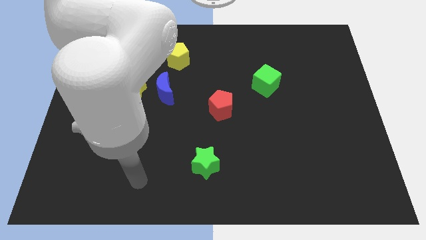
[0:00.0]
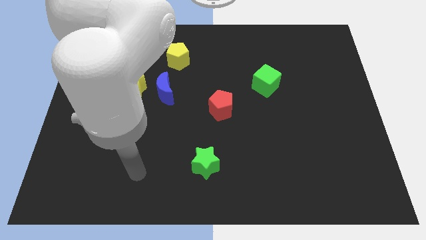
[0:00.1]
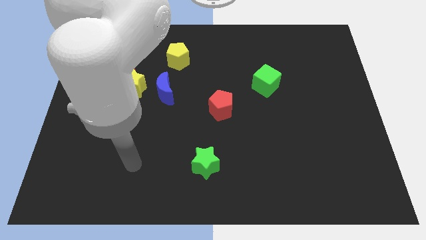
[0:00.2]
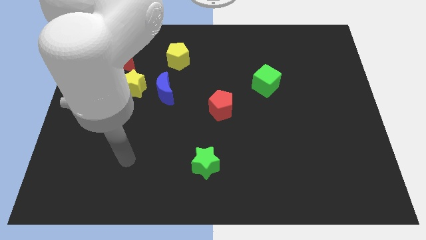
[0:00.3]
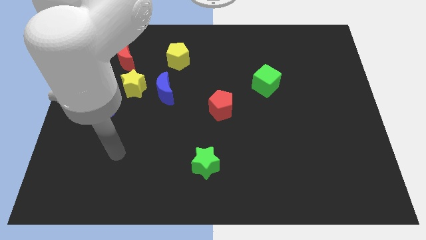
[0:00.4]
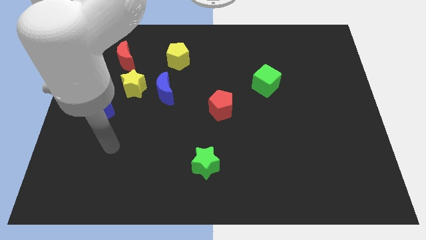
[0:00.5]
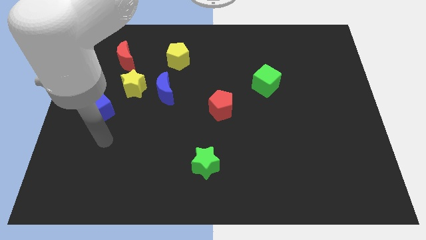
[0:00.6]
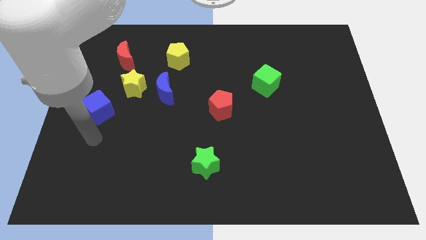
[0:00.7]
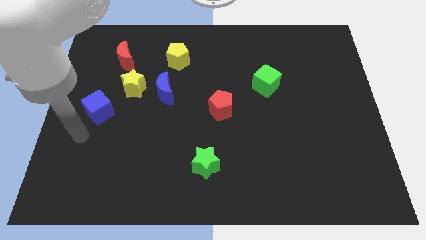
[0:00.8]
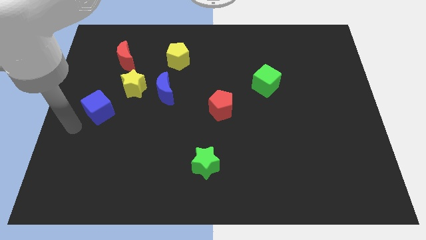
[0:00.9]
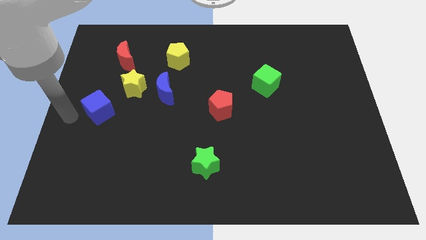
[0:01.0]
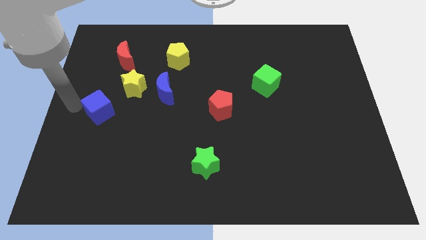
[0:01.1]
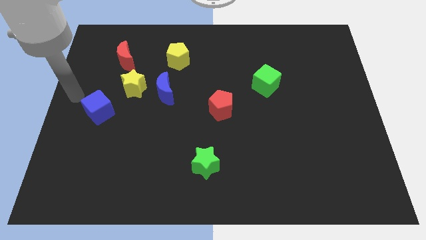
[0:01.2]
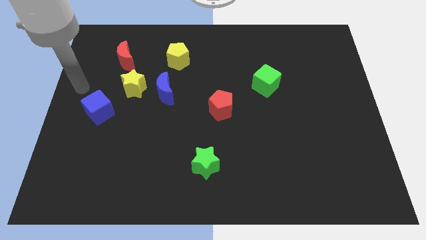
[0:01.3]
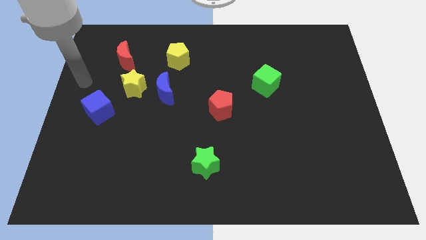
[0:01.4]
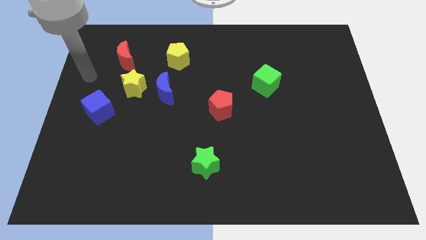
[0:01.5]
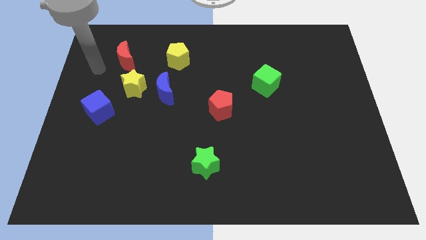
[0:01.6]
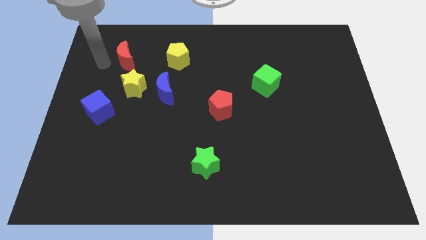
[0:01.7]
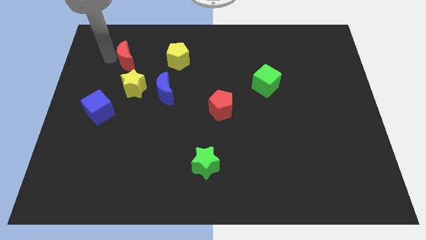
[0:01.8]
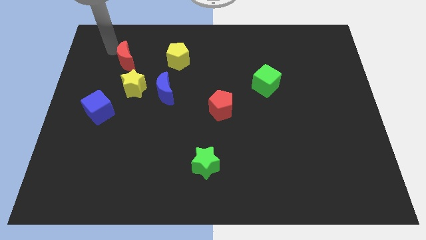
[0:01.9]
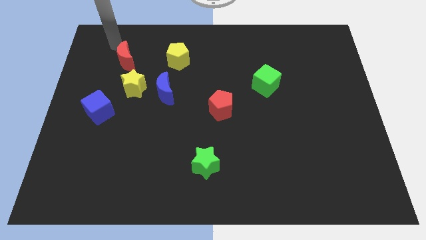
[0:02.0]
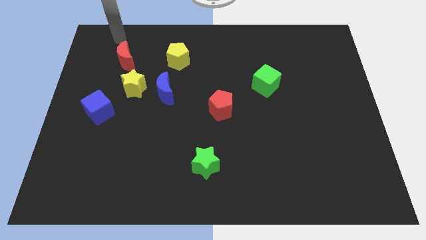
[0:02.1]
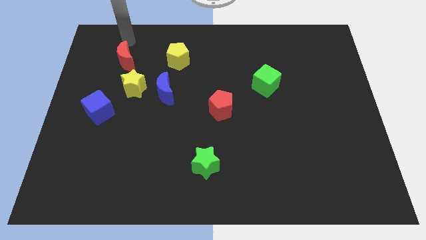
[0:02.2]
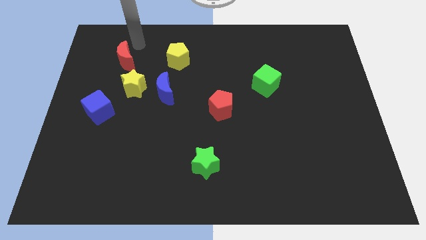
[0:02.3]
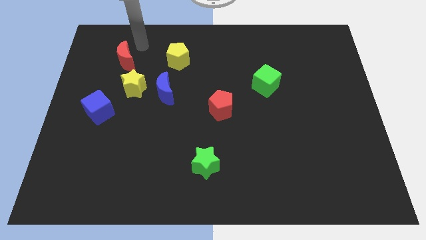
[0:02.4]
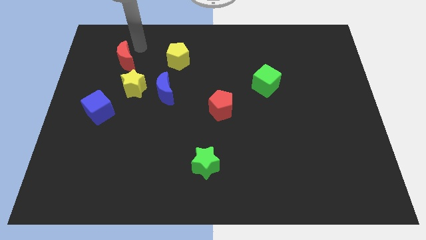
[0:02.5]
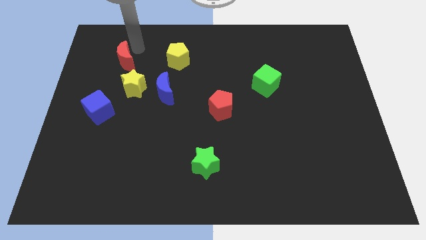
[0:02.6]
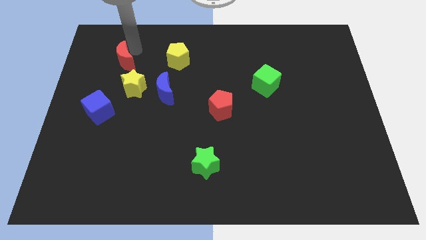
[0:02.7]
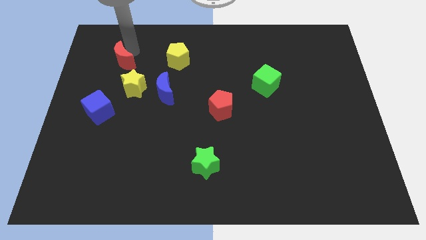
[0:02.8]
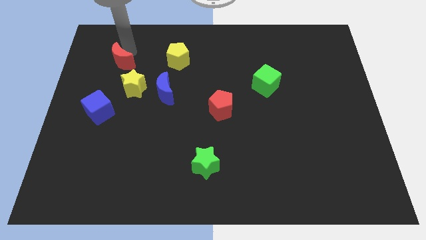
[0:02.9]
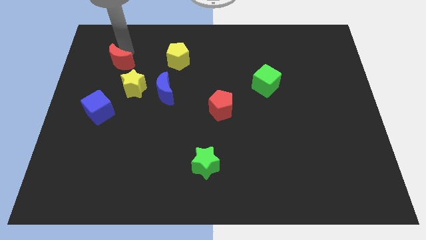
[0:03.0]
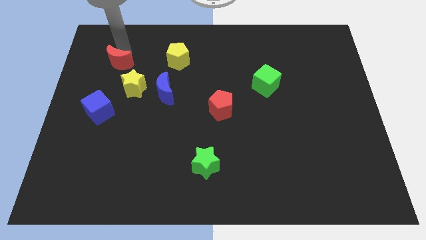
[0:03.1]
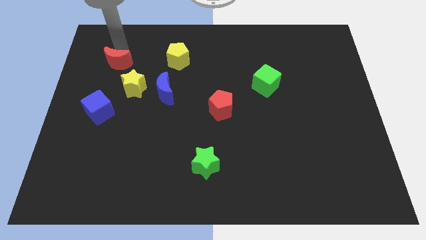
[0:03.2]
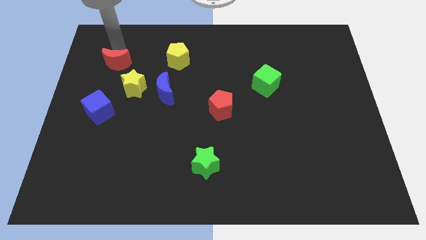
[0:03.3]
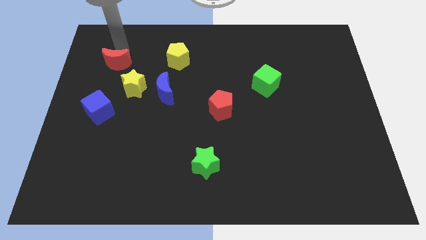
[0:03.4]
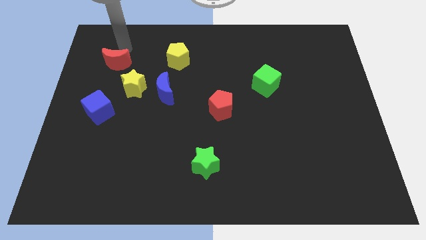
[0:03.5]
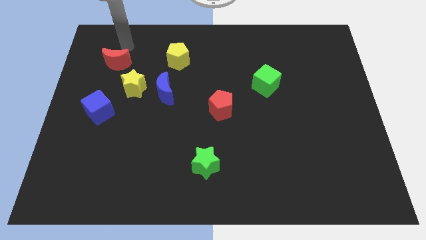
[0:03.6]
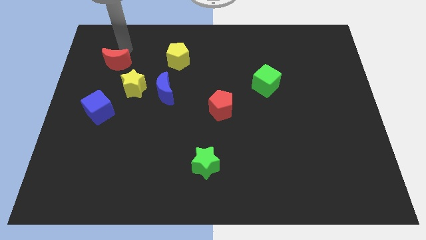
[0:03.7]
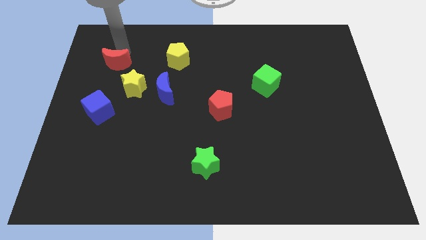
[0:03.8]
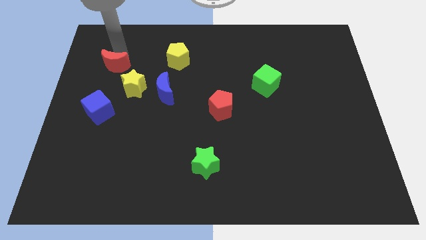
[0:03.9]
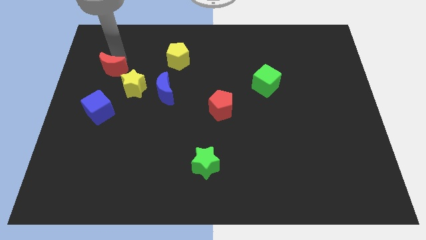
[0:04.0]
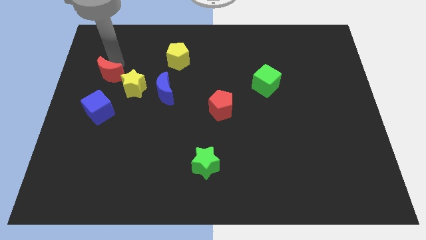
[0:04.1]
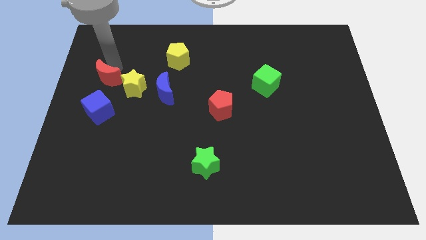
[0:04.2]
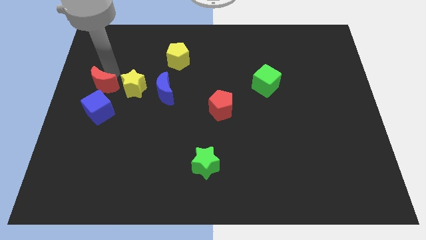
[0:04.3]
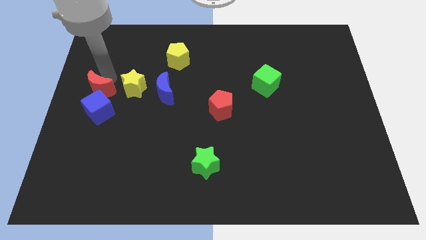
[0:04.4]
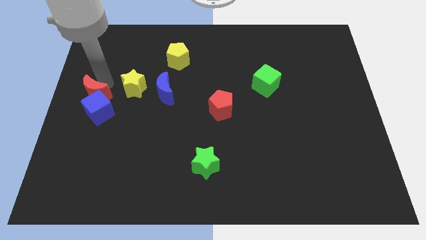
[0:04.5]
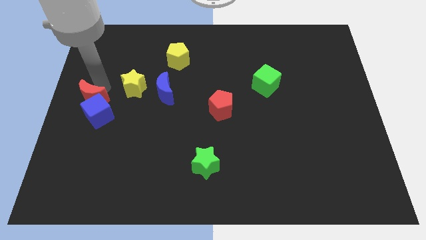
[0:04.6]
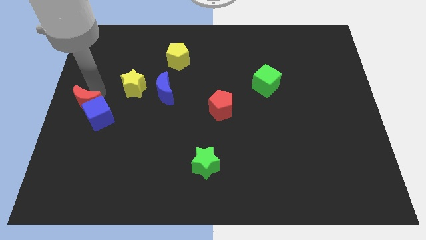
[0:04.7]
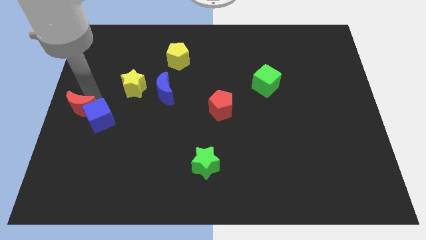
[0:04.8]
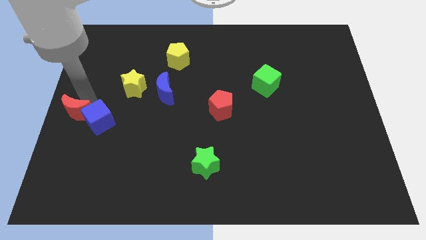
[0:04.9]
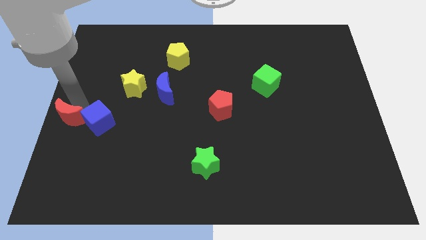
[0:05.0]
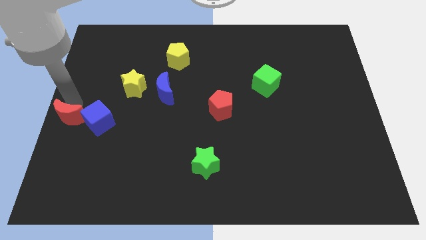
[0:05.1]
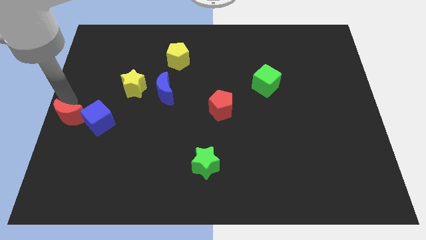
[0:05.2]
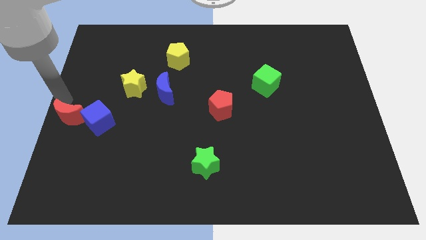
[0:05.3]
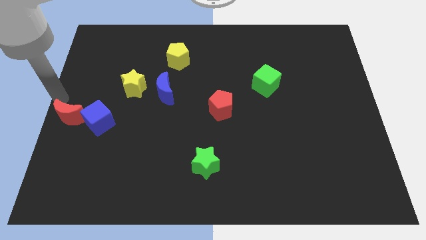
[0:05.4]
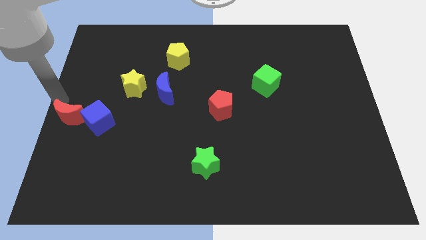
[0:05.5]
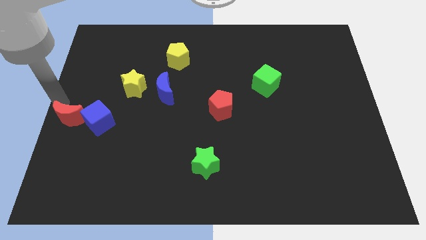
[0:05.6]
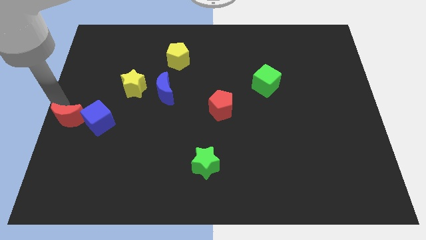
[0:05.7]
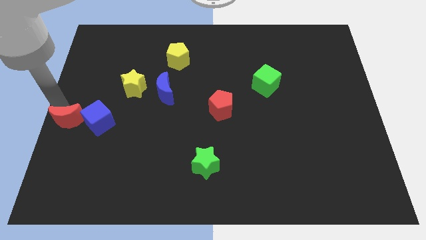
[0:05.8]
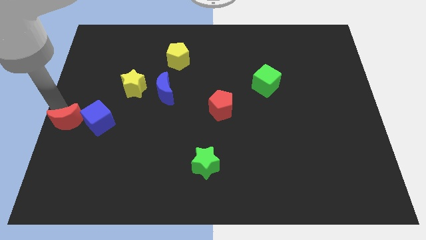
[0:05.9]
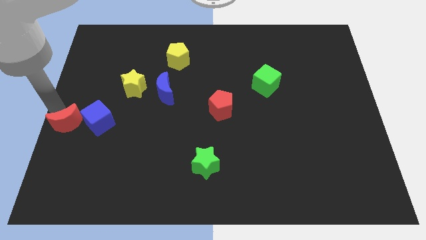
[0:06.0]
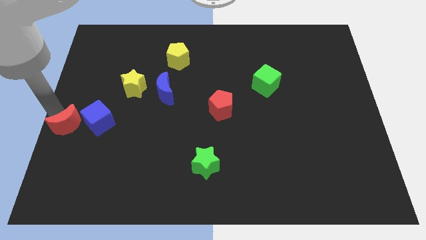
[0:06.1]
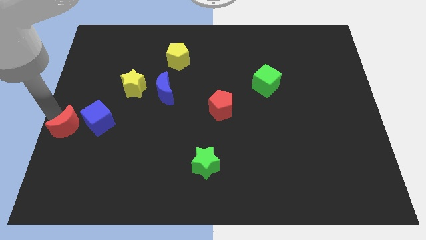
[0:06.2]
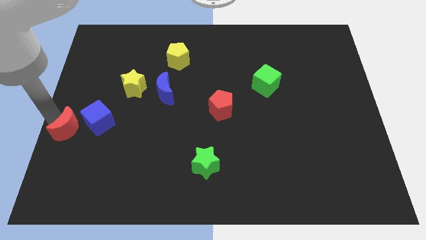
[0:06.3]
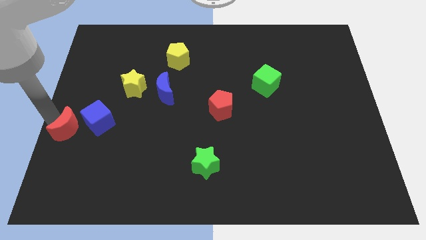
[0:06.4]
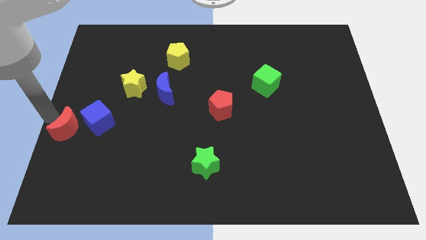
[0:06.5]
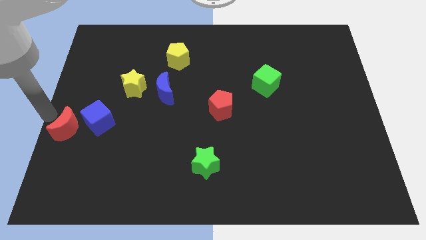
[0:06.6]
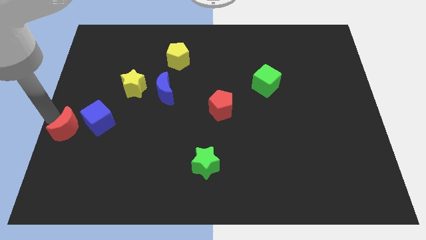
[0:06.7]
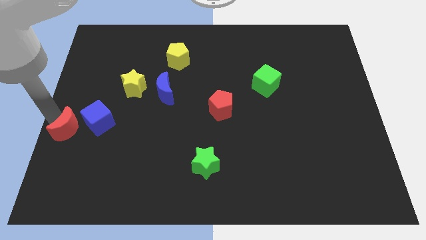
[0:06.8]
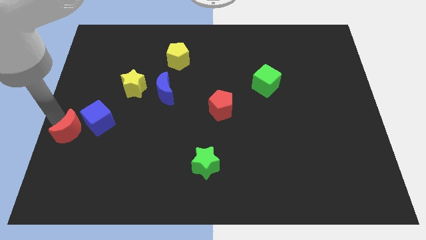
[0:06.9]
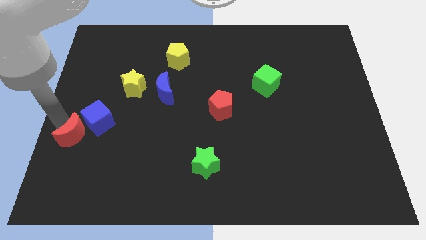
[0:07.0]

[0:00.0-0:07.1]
move the red moon down

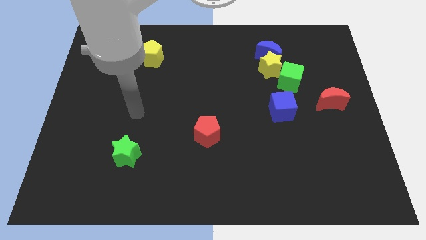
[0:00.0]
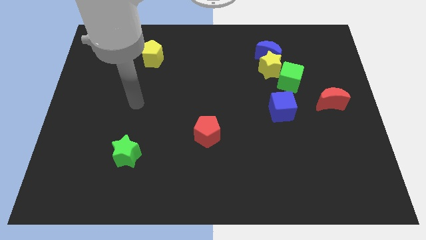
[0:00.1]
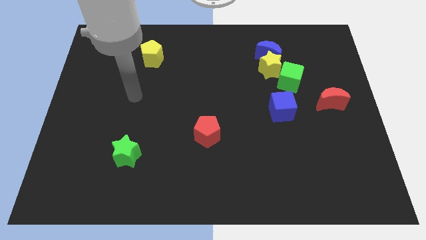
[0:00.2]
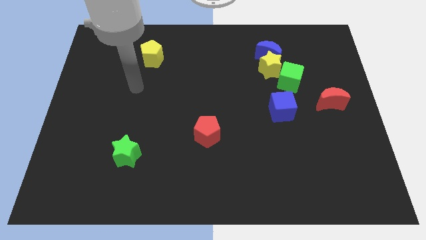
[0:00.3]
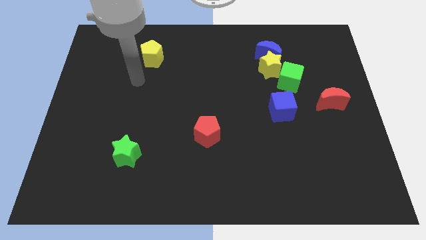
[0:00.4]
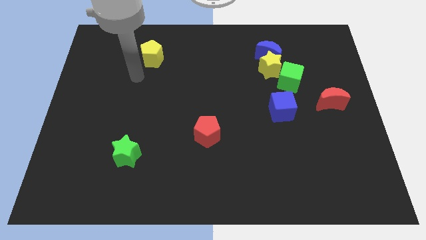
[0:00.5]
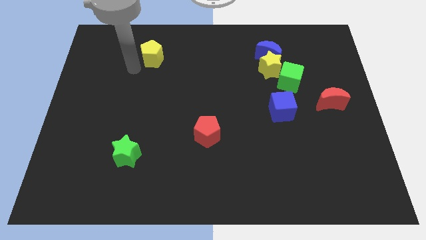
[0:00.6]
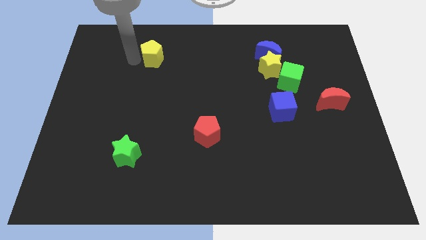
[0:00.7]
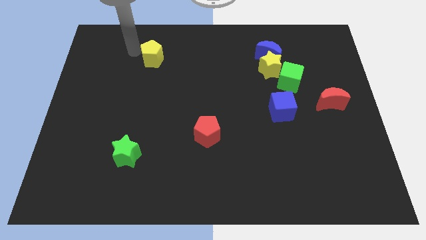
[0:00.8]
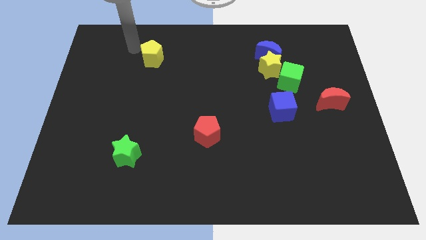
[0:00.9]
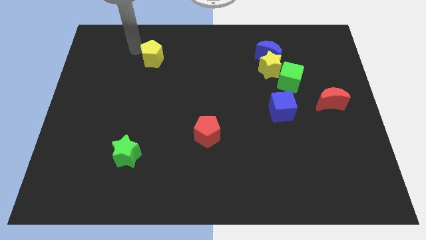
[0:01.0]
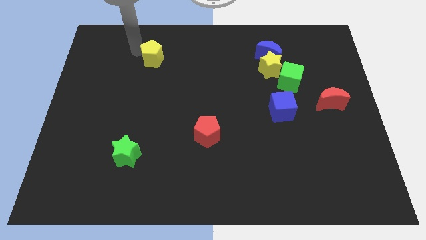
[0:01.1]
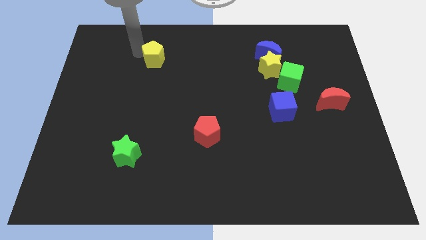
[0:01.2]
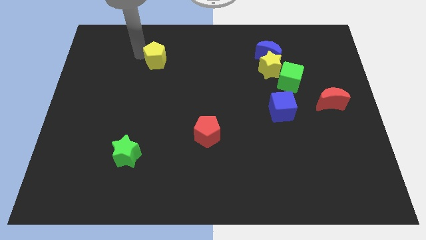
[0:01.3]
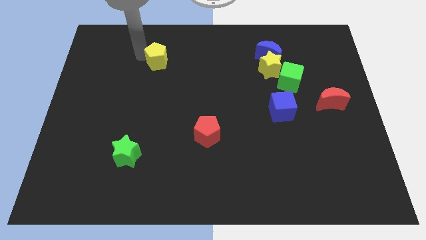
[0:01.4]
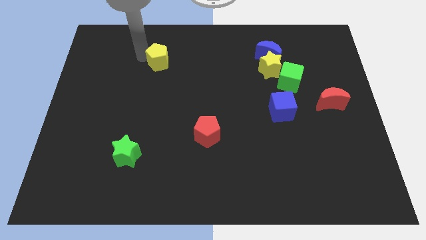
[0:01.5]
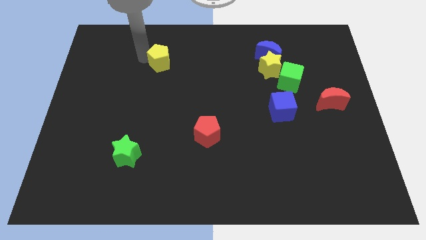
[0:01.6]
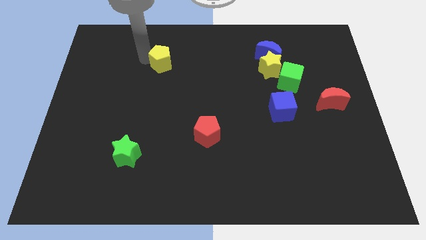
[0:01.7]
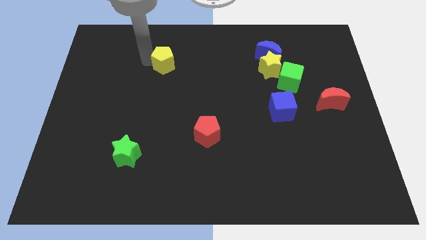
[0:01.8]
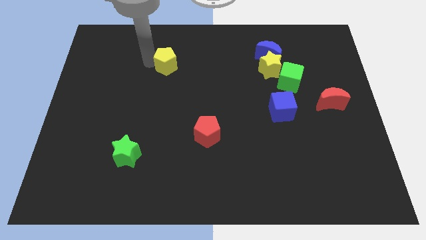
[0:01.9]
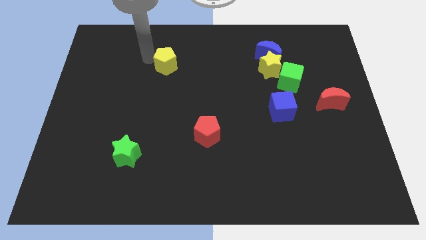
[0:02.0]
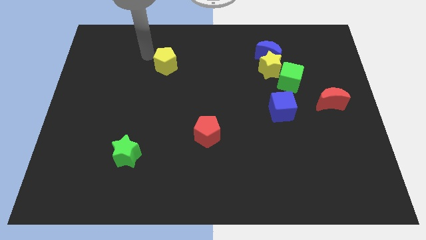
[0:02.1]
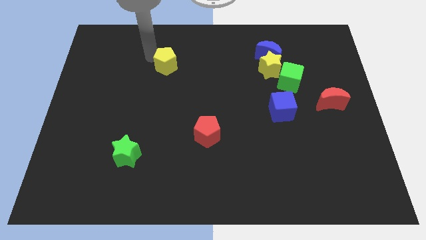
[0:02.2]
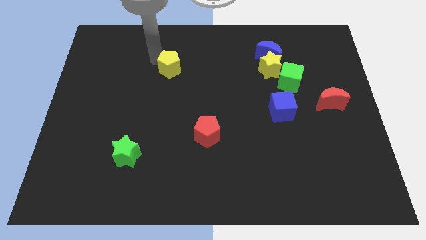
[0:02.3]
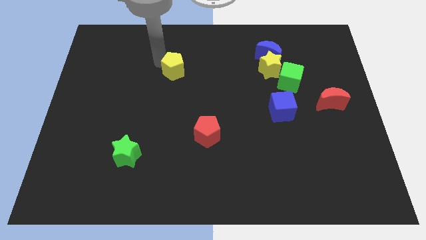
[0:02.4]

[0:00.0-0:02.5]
move the yellow pentagon downwards and to the right slightly
